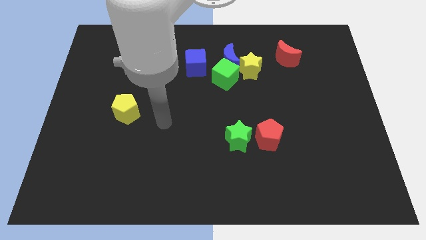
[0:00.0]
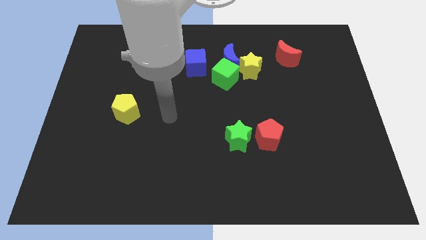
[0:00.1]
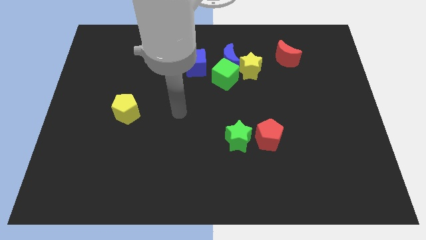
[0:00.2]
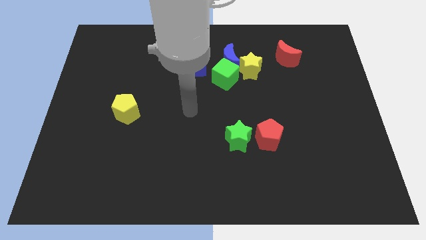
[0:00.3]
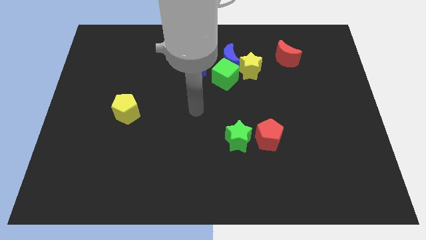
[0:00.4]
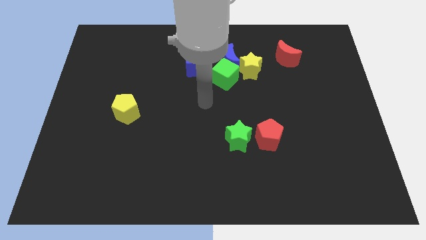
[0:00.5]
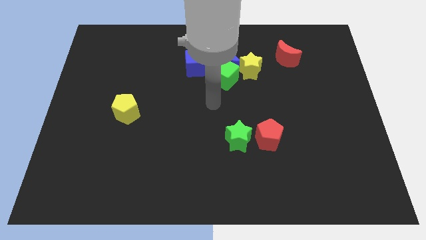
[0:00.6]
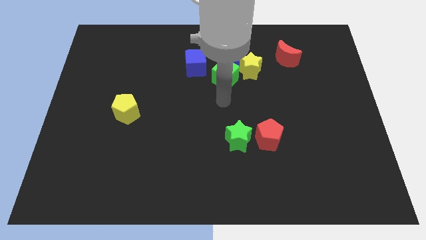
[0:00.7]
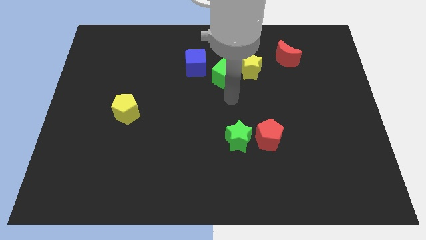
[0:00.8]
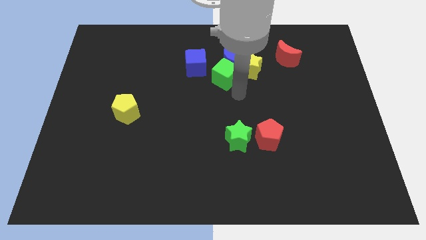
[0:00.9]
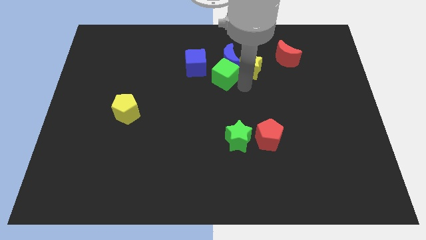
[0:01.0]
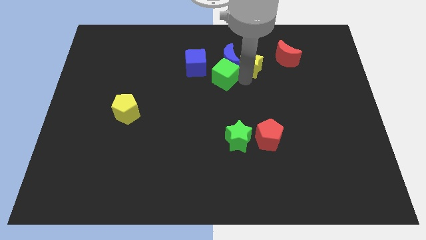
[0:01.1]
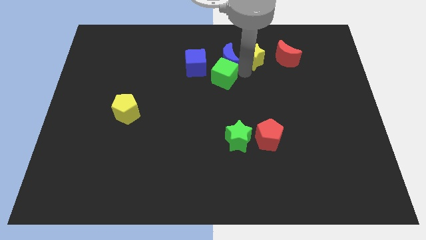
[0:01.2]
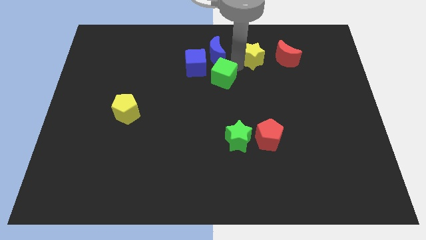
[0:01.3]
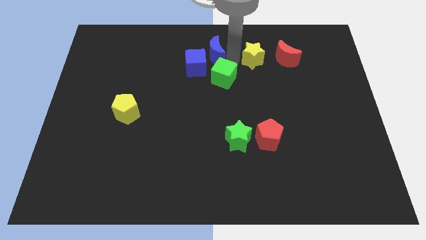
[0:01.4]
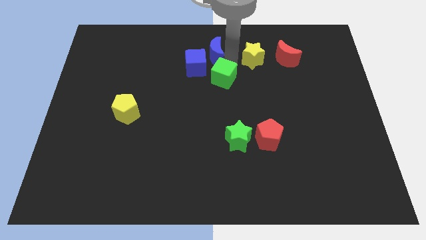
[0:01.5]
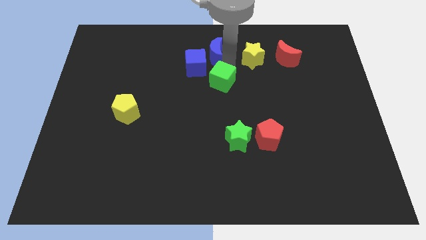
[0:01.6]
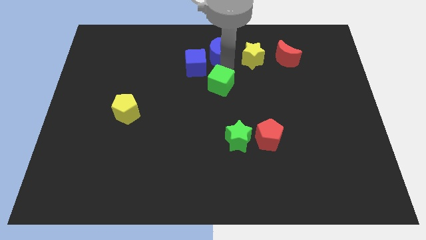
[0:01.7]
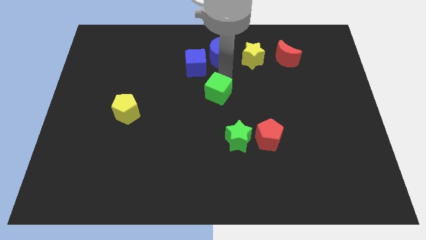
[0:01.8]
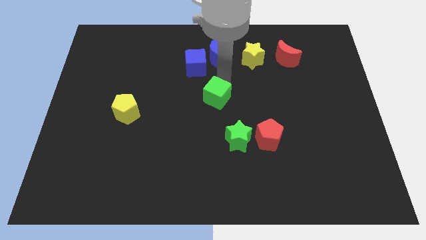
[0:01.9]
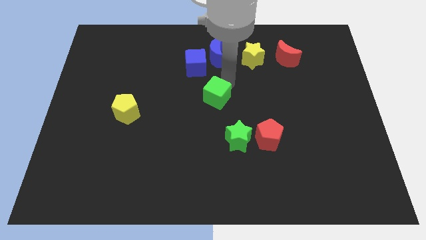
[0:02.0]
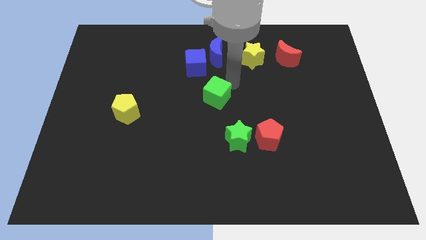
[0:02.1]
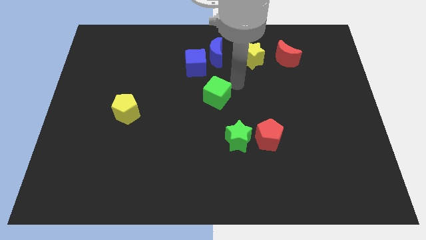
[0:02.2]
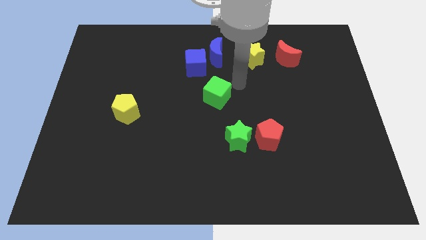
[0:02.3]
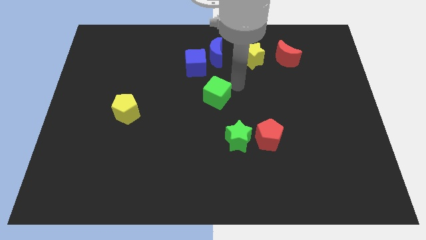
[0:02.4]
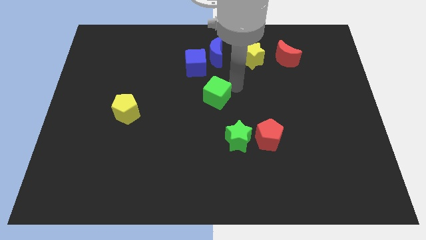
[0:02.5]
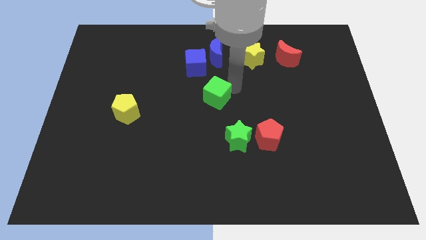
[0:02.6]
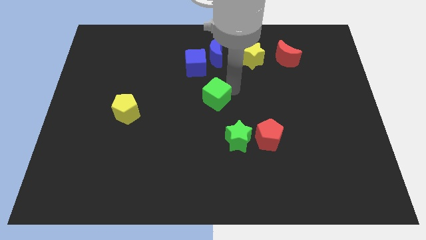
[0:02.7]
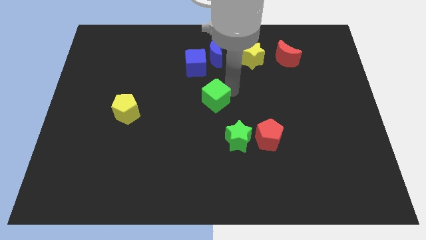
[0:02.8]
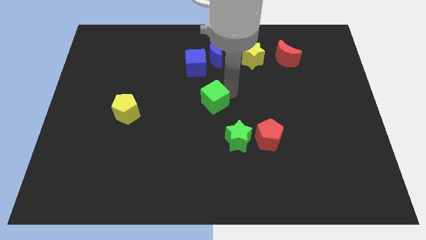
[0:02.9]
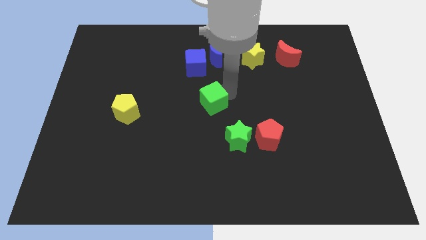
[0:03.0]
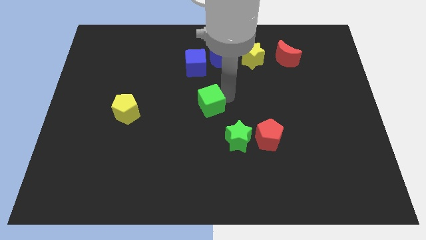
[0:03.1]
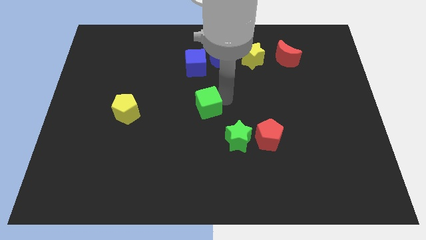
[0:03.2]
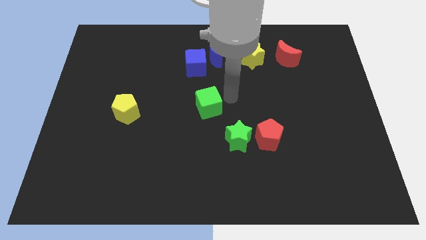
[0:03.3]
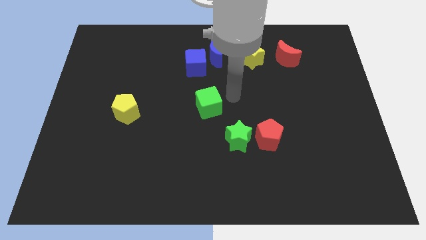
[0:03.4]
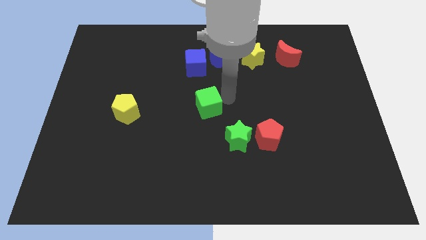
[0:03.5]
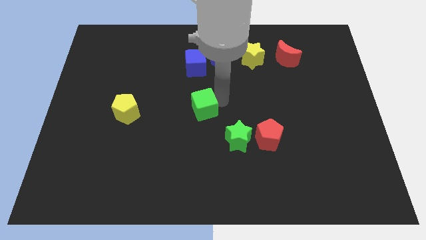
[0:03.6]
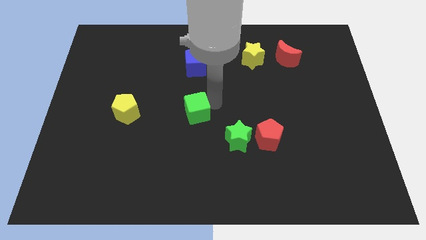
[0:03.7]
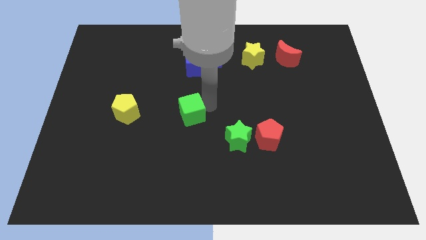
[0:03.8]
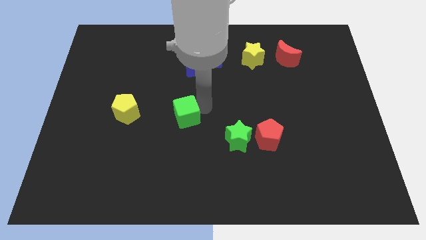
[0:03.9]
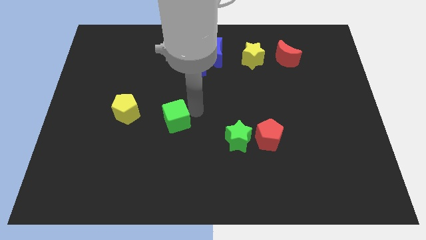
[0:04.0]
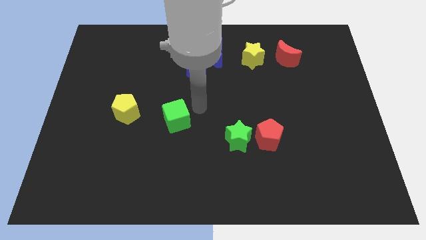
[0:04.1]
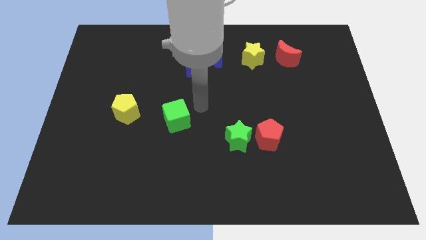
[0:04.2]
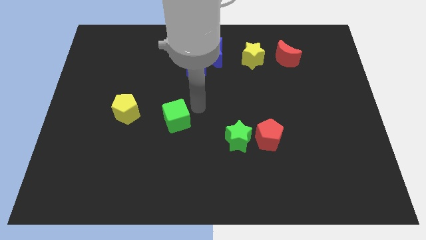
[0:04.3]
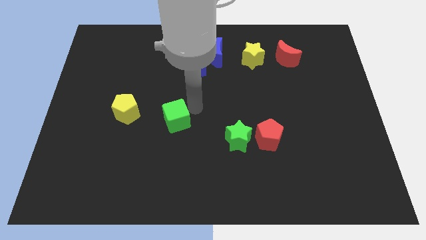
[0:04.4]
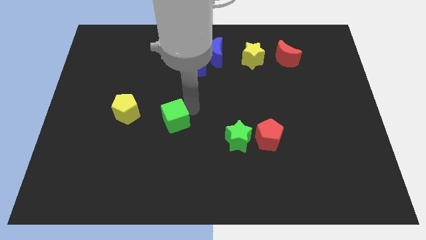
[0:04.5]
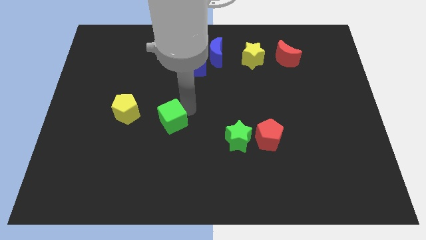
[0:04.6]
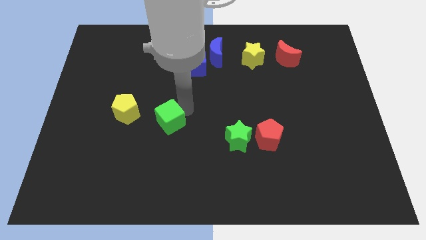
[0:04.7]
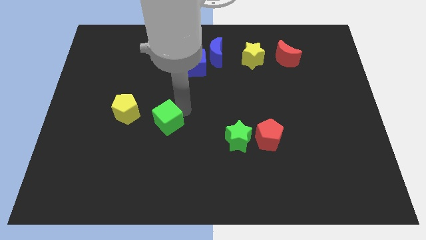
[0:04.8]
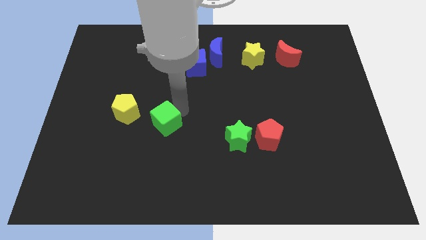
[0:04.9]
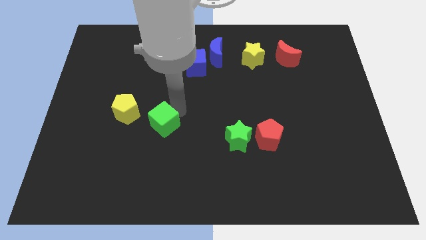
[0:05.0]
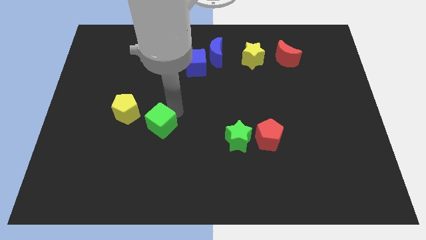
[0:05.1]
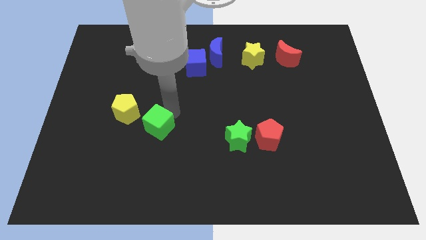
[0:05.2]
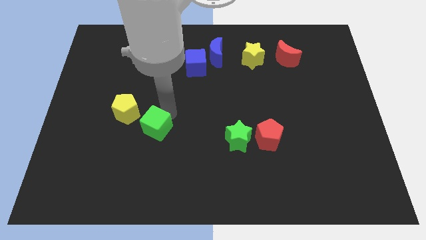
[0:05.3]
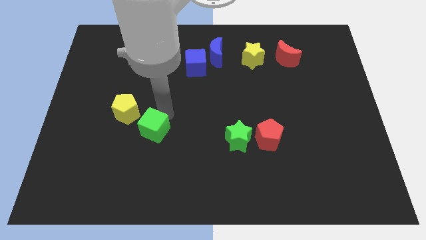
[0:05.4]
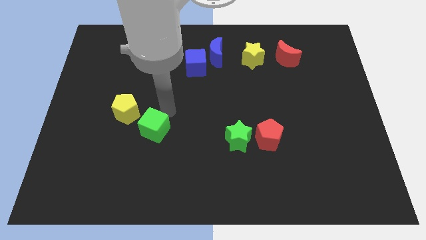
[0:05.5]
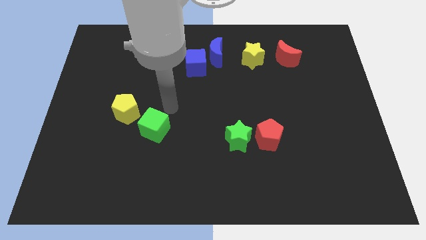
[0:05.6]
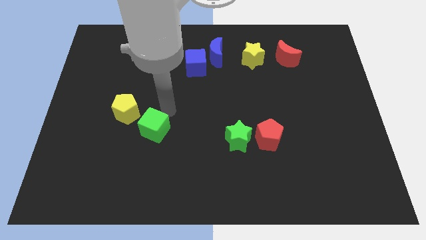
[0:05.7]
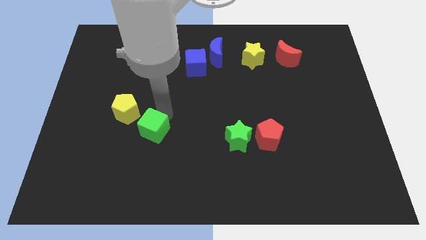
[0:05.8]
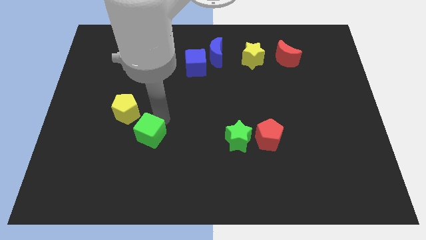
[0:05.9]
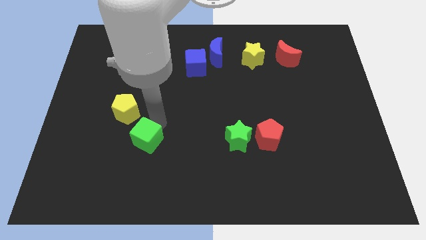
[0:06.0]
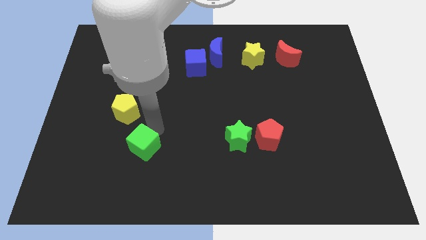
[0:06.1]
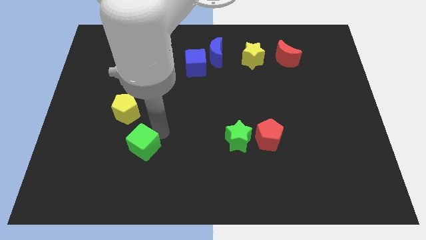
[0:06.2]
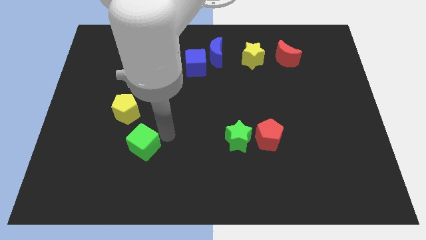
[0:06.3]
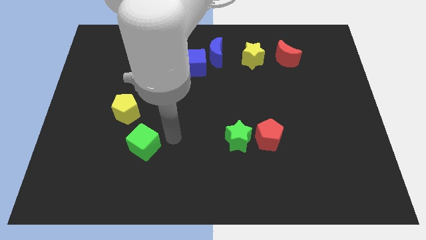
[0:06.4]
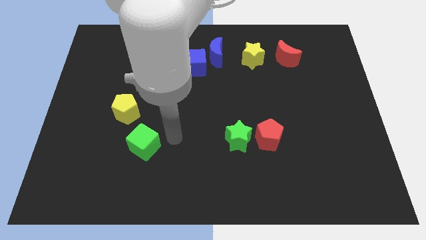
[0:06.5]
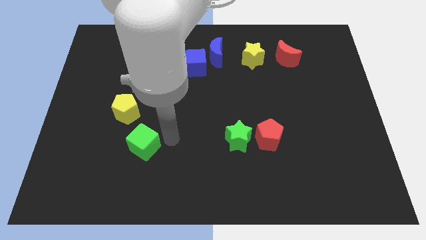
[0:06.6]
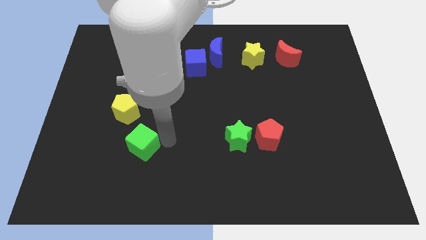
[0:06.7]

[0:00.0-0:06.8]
push the green cube to the bottom side of the yellow pentagon

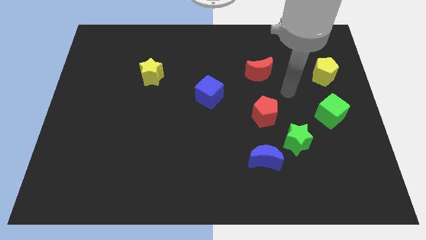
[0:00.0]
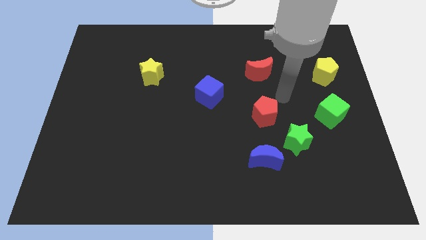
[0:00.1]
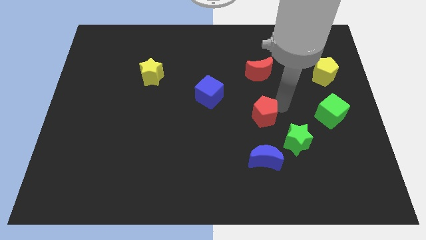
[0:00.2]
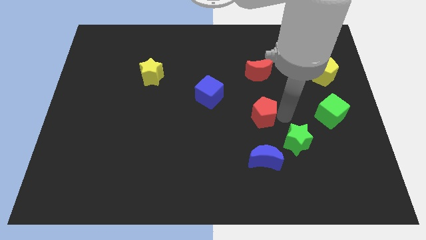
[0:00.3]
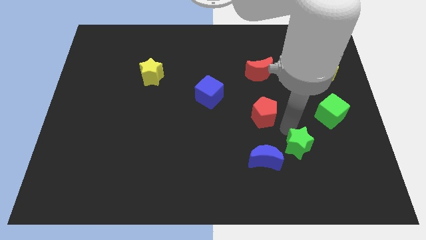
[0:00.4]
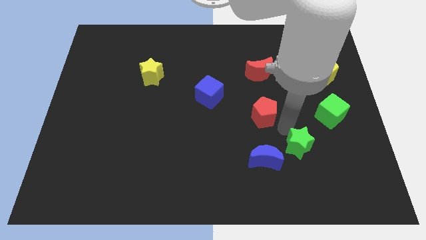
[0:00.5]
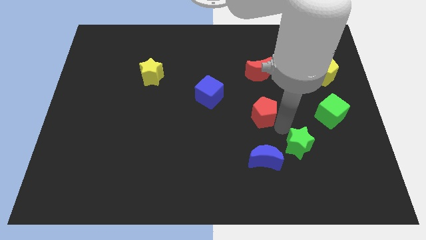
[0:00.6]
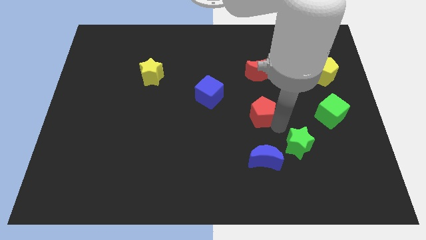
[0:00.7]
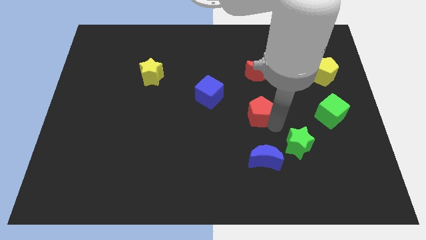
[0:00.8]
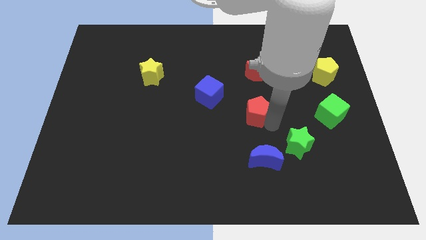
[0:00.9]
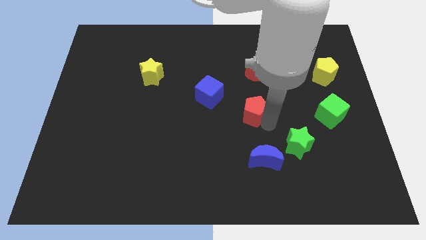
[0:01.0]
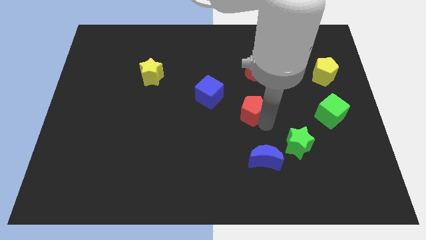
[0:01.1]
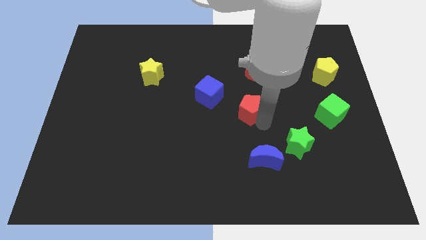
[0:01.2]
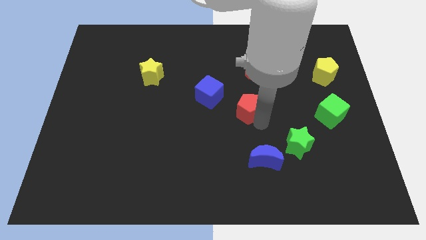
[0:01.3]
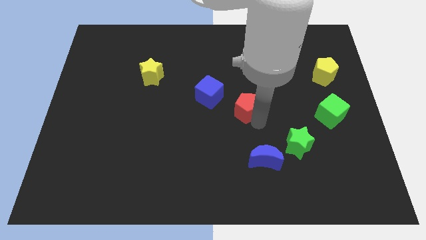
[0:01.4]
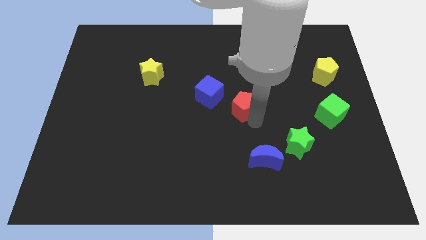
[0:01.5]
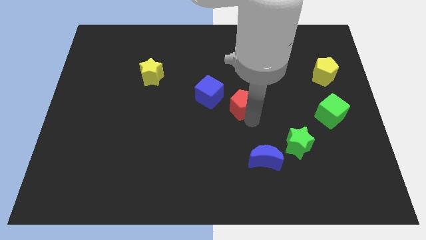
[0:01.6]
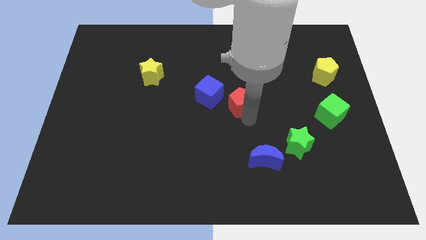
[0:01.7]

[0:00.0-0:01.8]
move the red pentagon to the bottom left side of the red moon

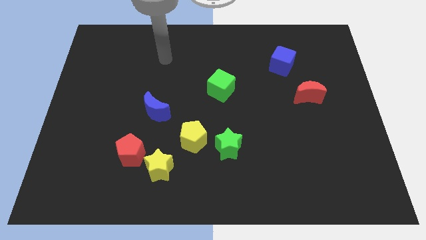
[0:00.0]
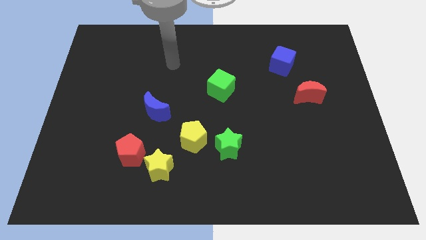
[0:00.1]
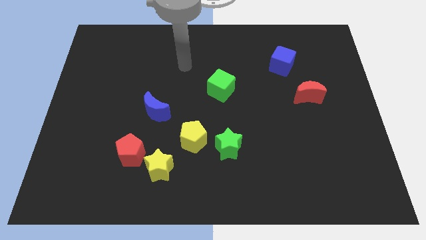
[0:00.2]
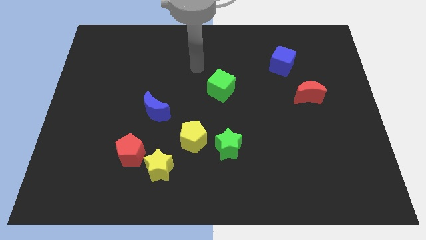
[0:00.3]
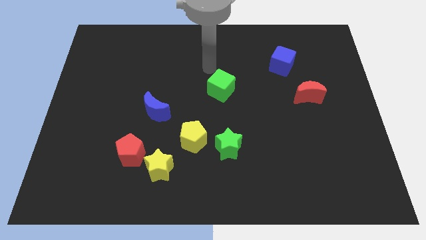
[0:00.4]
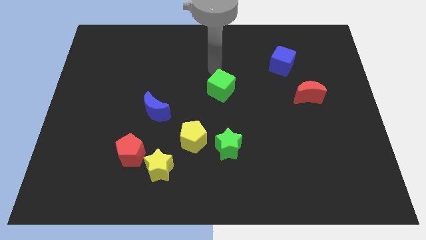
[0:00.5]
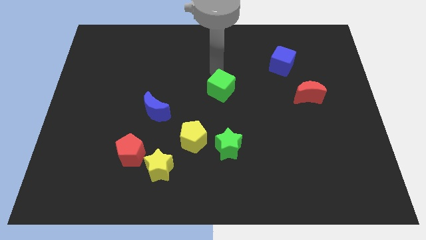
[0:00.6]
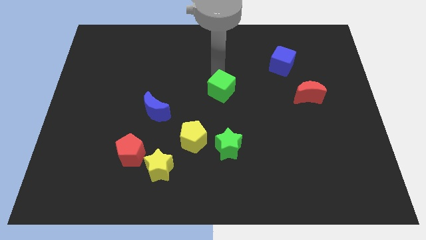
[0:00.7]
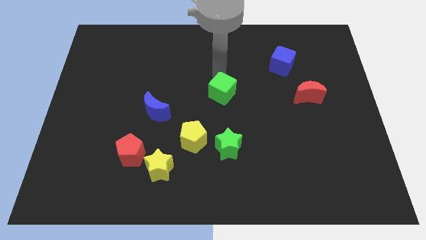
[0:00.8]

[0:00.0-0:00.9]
push the green cube to the top of the green star
